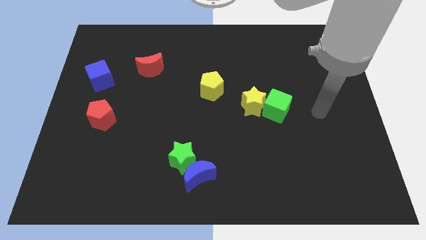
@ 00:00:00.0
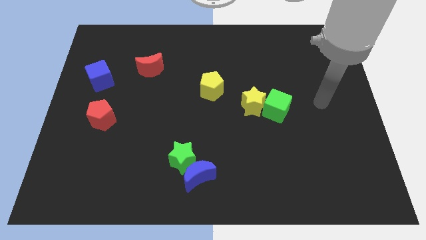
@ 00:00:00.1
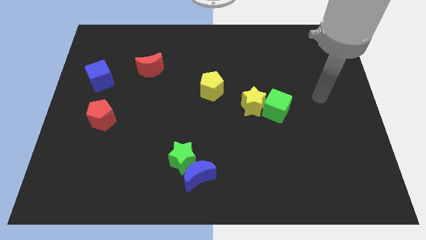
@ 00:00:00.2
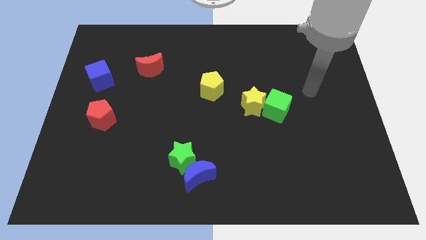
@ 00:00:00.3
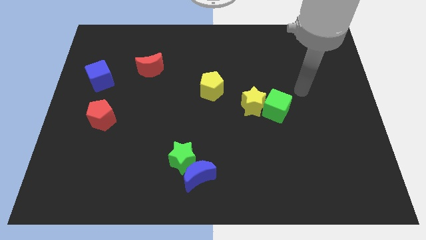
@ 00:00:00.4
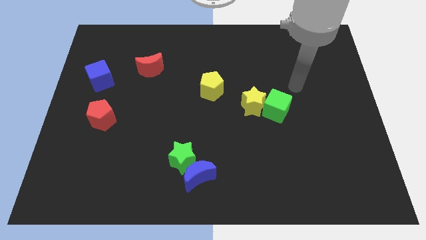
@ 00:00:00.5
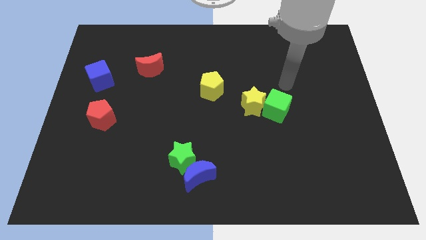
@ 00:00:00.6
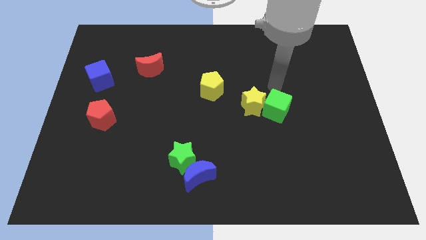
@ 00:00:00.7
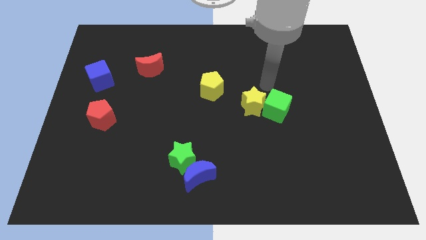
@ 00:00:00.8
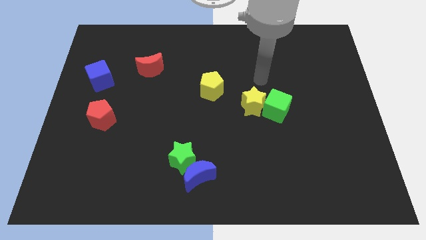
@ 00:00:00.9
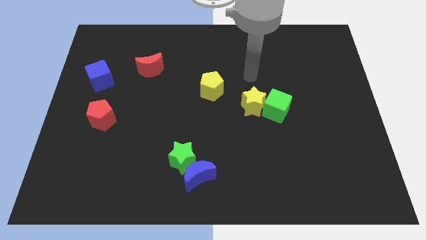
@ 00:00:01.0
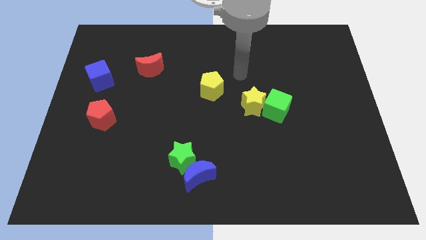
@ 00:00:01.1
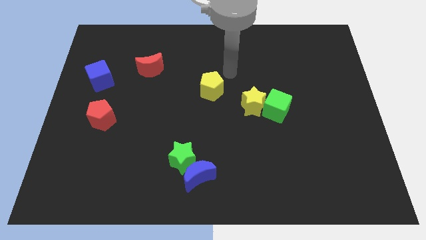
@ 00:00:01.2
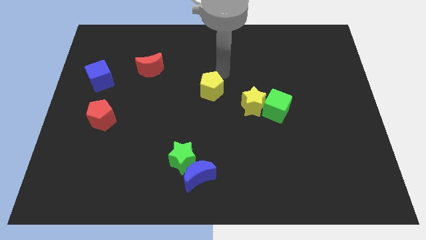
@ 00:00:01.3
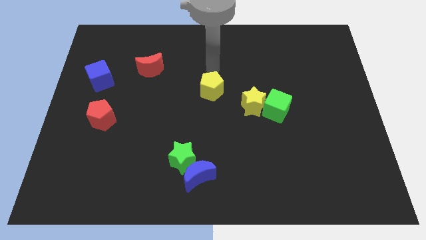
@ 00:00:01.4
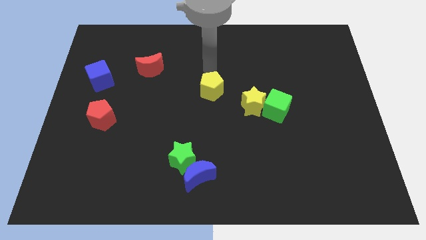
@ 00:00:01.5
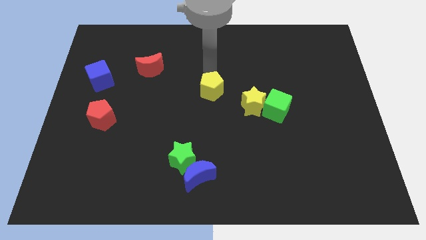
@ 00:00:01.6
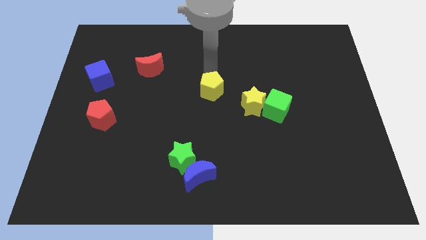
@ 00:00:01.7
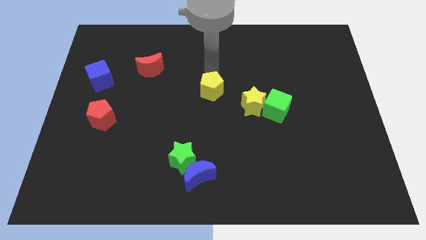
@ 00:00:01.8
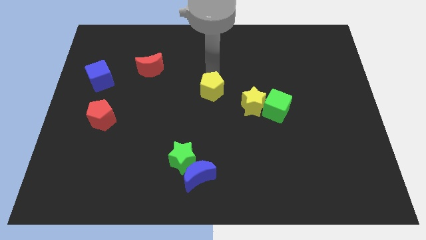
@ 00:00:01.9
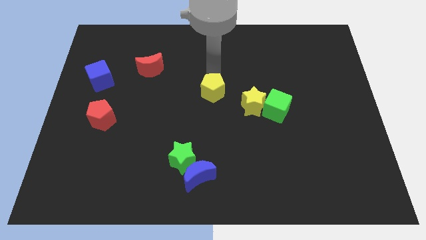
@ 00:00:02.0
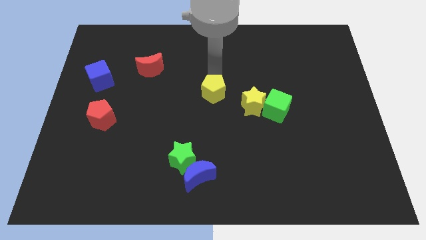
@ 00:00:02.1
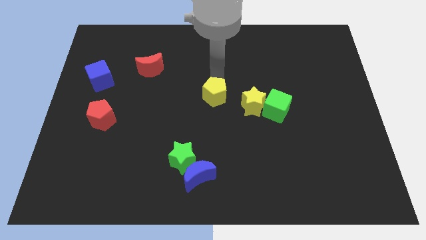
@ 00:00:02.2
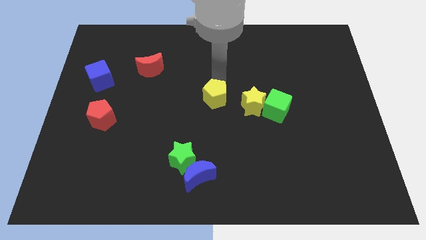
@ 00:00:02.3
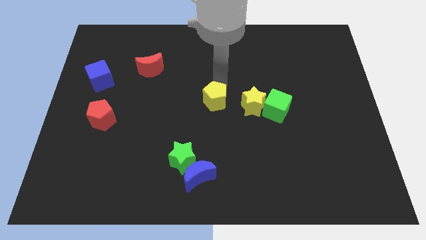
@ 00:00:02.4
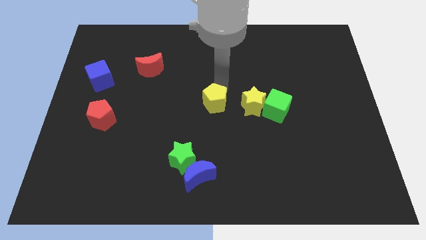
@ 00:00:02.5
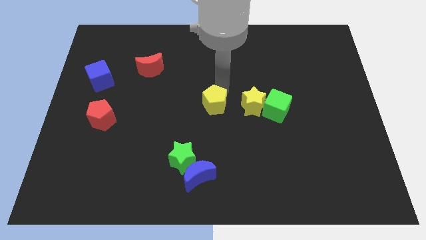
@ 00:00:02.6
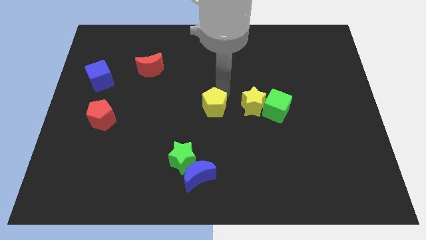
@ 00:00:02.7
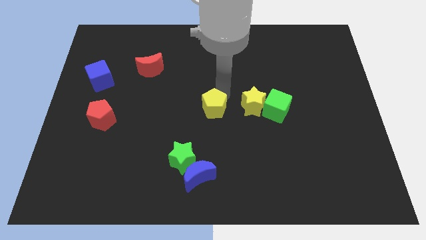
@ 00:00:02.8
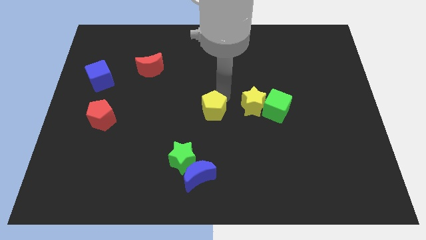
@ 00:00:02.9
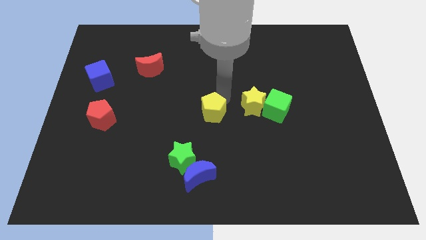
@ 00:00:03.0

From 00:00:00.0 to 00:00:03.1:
slide the yellow pentagon a little downwards

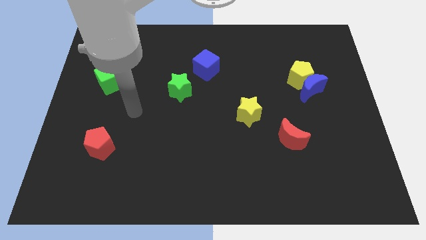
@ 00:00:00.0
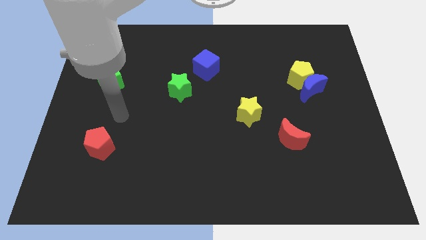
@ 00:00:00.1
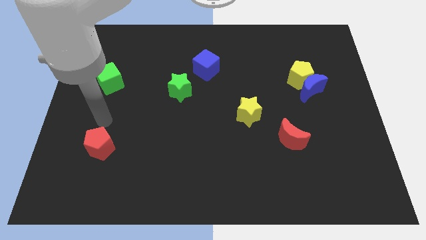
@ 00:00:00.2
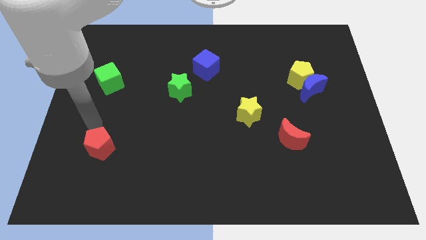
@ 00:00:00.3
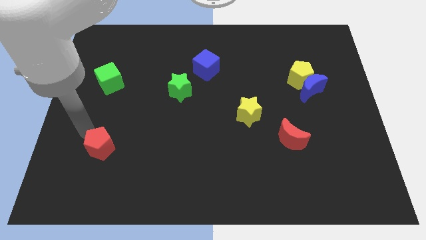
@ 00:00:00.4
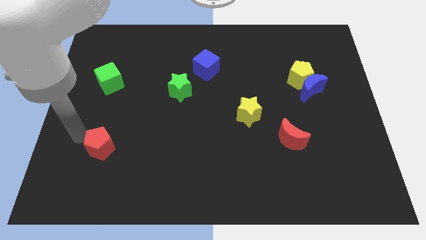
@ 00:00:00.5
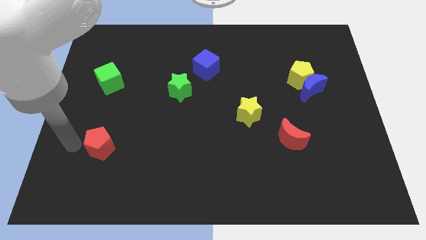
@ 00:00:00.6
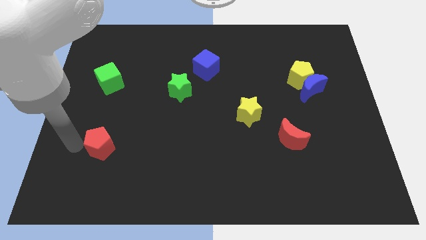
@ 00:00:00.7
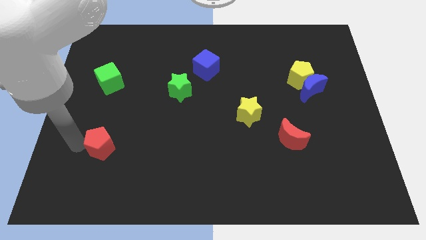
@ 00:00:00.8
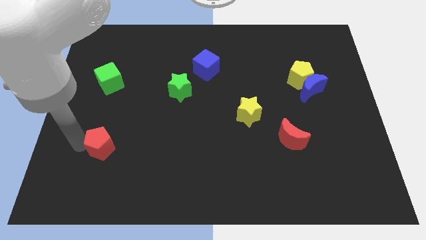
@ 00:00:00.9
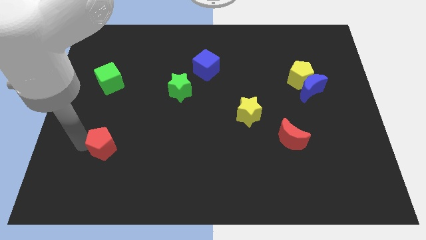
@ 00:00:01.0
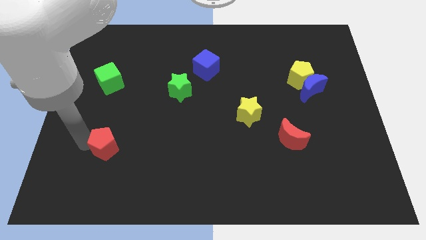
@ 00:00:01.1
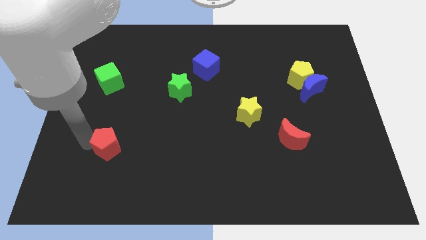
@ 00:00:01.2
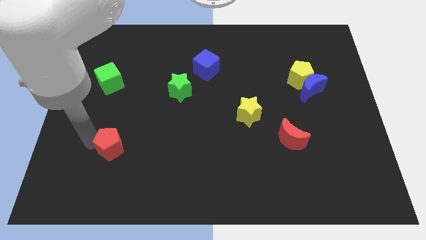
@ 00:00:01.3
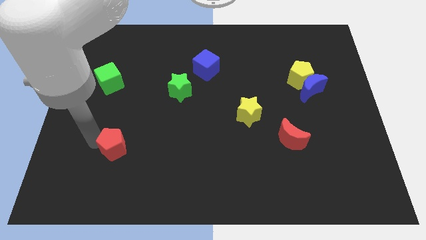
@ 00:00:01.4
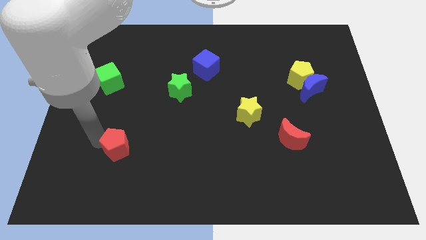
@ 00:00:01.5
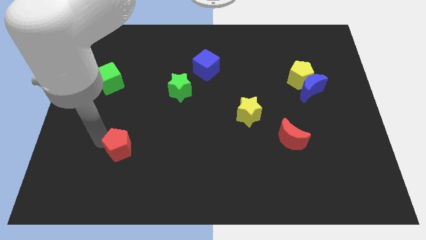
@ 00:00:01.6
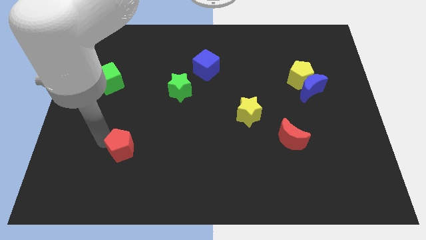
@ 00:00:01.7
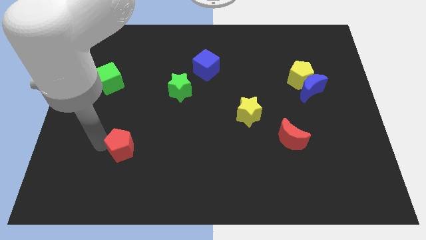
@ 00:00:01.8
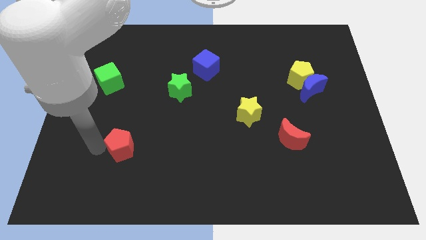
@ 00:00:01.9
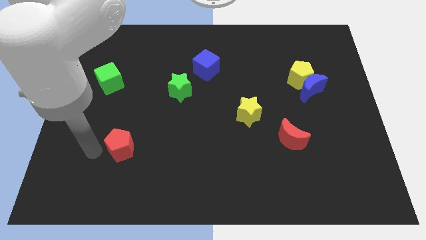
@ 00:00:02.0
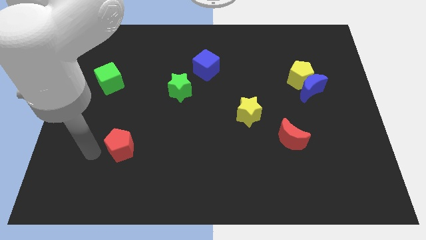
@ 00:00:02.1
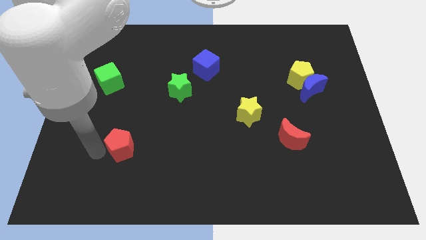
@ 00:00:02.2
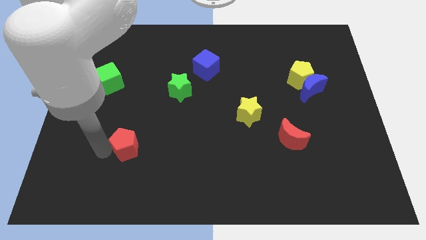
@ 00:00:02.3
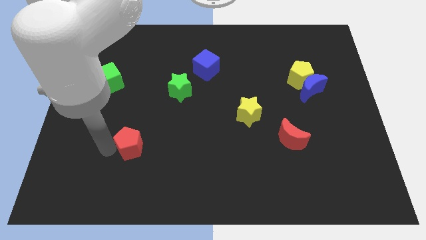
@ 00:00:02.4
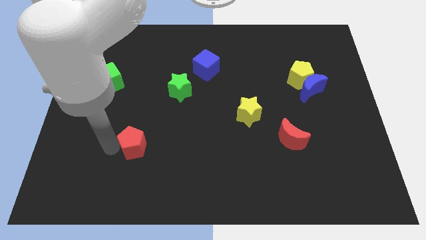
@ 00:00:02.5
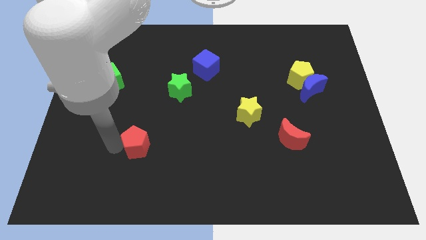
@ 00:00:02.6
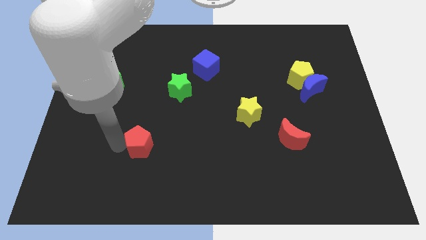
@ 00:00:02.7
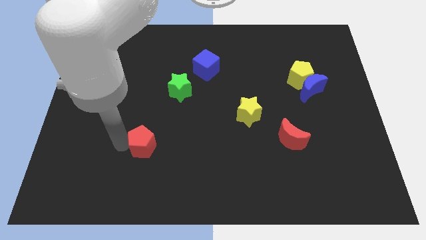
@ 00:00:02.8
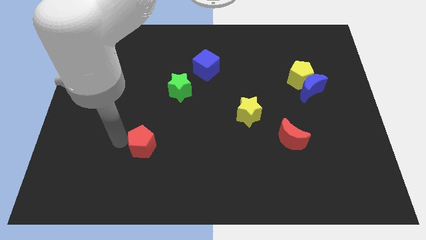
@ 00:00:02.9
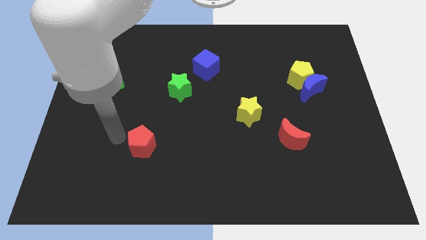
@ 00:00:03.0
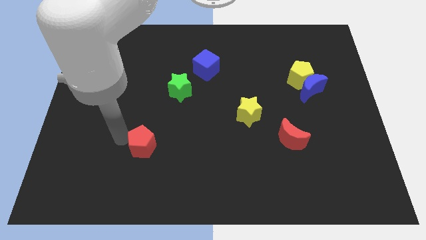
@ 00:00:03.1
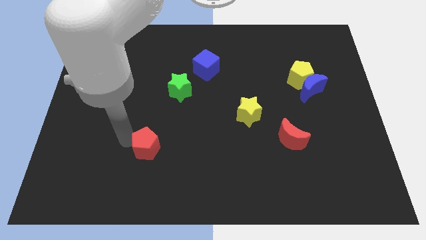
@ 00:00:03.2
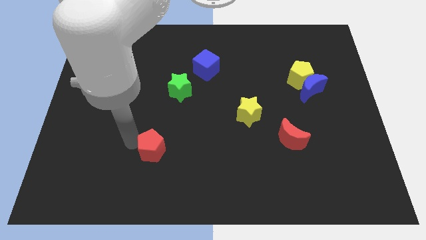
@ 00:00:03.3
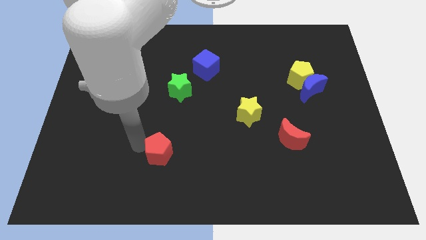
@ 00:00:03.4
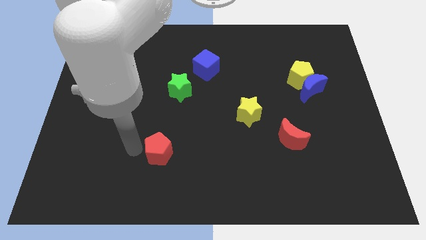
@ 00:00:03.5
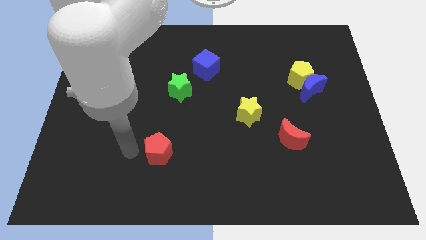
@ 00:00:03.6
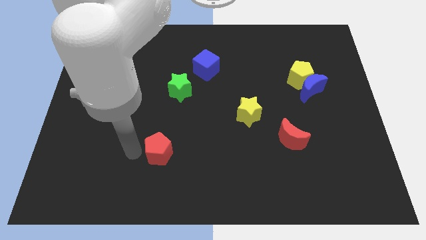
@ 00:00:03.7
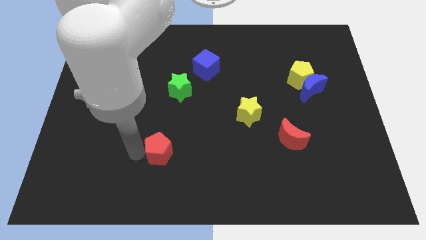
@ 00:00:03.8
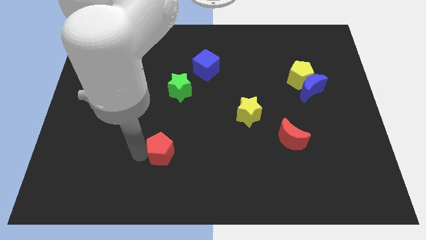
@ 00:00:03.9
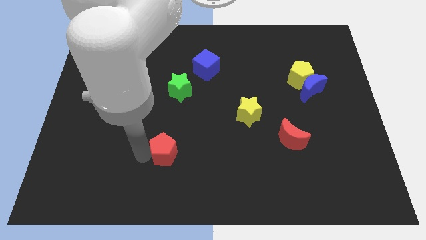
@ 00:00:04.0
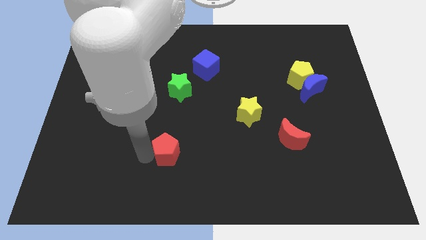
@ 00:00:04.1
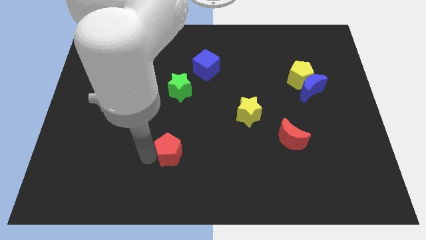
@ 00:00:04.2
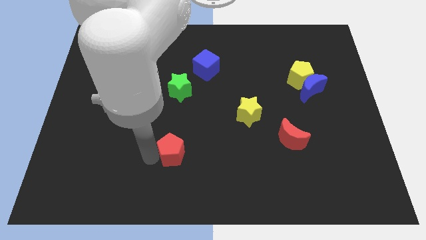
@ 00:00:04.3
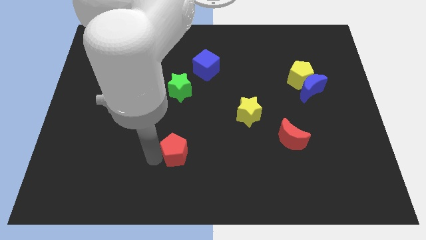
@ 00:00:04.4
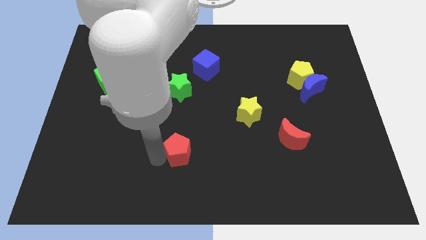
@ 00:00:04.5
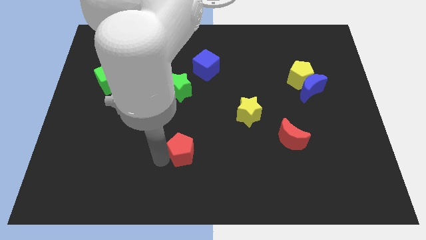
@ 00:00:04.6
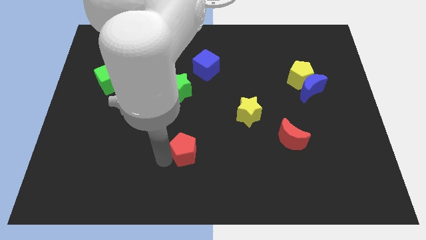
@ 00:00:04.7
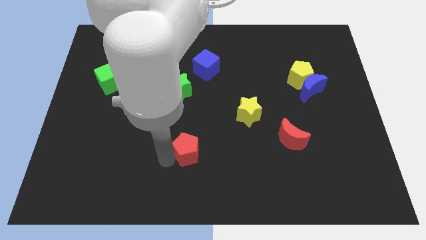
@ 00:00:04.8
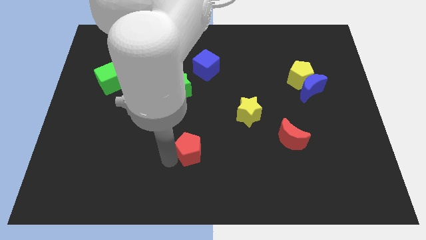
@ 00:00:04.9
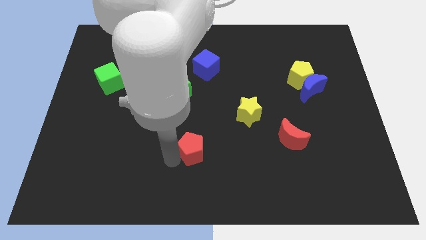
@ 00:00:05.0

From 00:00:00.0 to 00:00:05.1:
move the red pentagon to the right

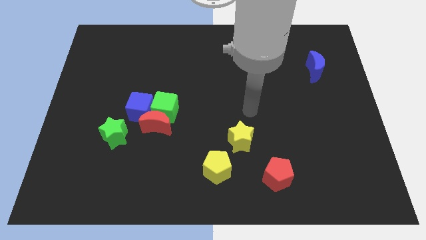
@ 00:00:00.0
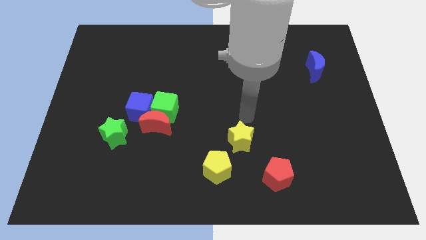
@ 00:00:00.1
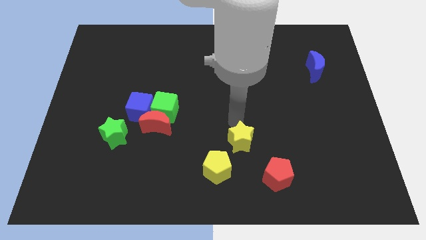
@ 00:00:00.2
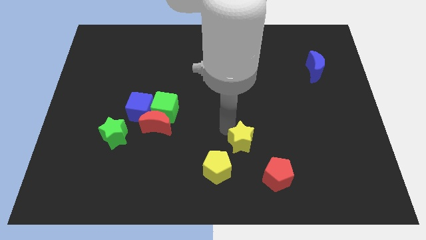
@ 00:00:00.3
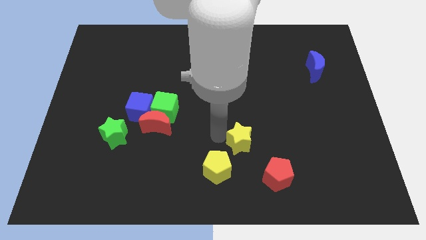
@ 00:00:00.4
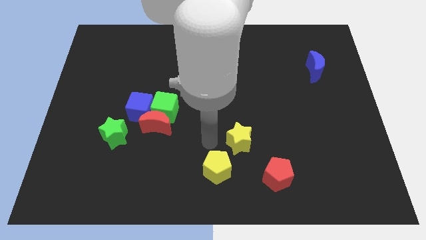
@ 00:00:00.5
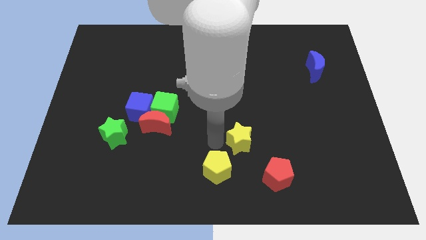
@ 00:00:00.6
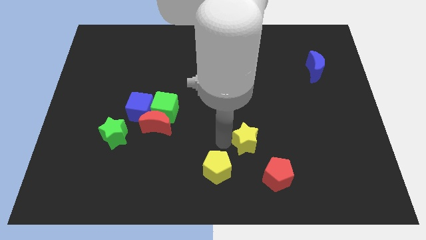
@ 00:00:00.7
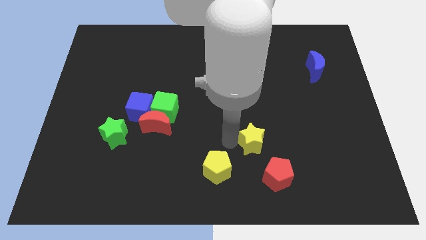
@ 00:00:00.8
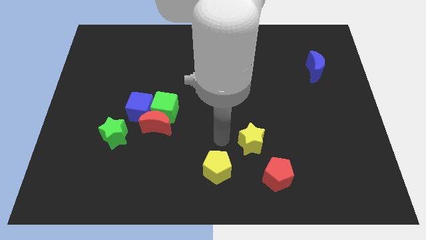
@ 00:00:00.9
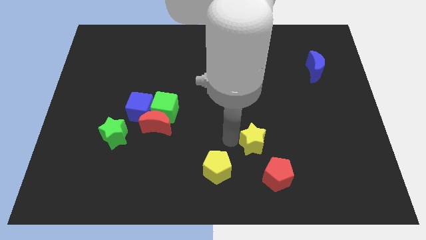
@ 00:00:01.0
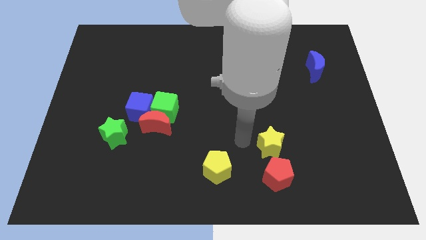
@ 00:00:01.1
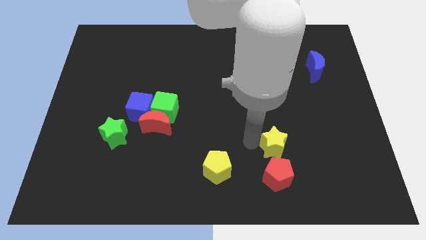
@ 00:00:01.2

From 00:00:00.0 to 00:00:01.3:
move the yellow star right slightly
